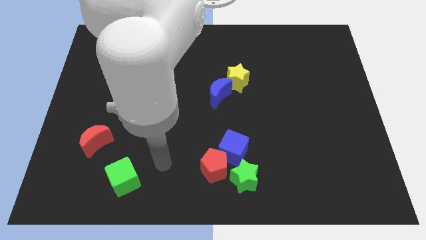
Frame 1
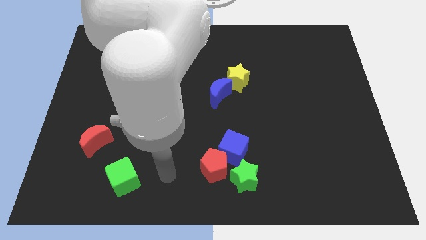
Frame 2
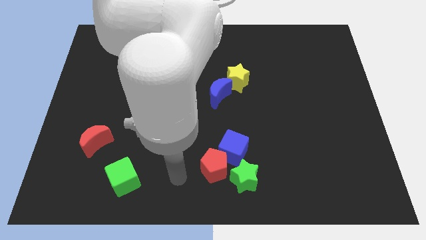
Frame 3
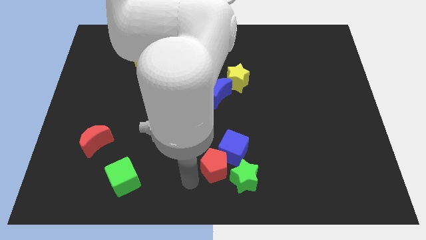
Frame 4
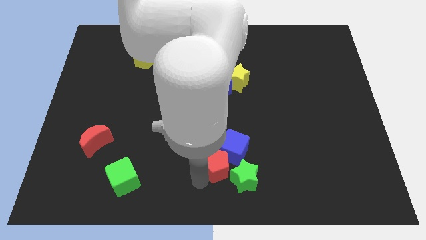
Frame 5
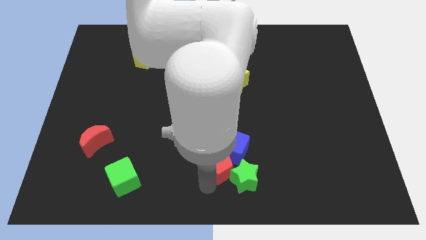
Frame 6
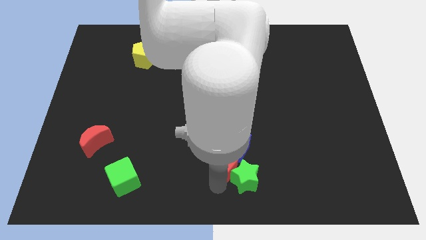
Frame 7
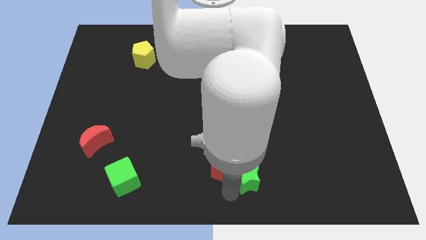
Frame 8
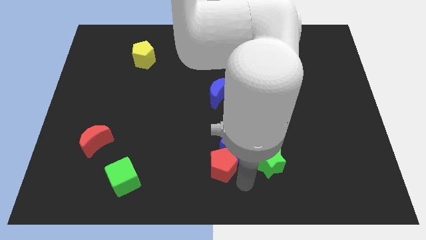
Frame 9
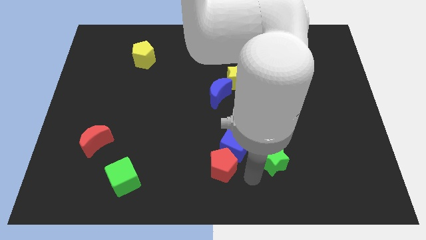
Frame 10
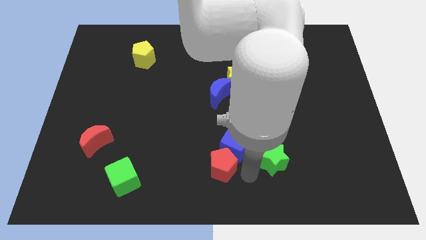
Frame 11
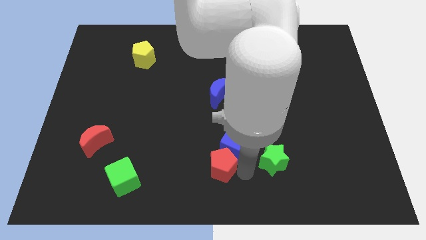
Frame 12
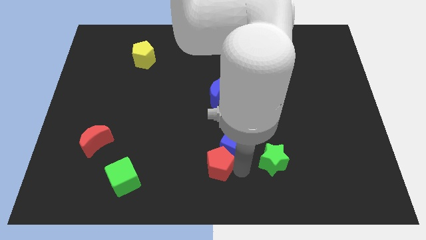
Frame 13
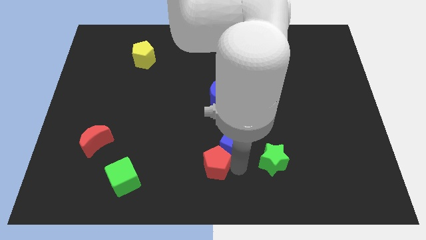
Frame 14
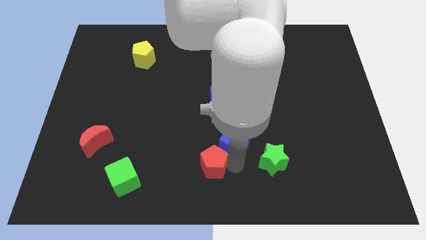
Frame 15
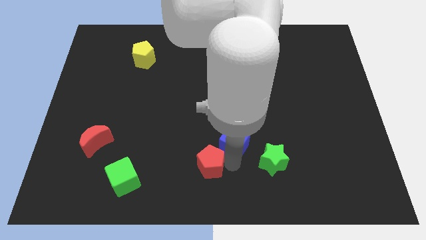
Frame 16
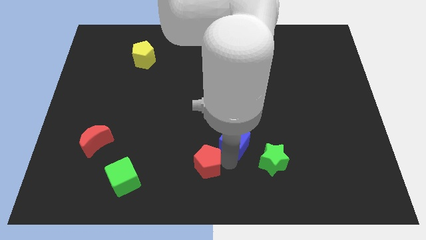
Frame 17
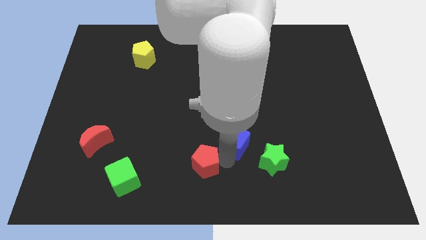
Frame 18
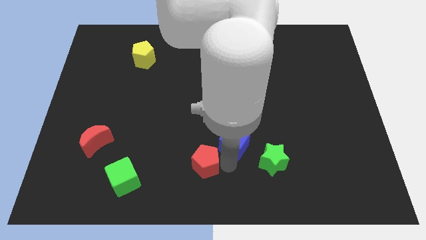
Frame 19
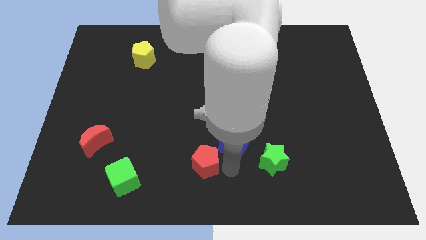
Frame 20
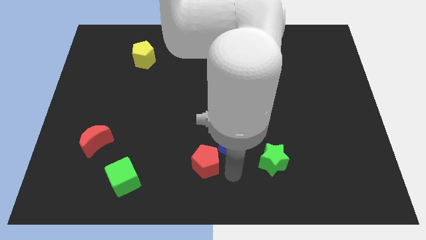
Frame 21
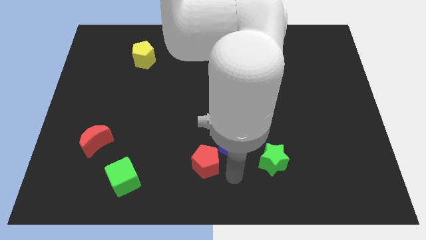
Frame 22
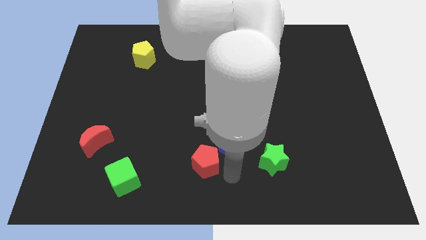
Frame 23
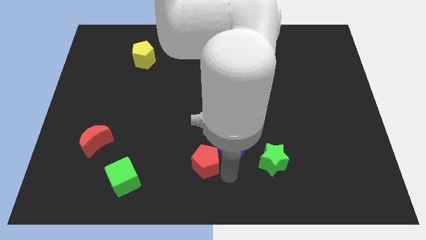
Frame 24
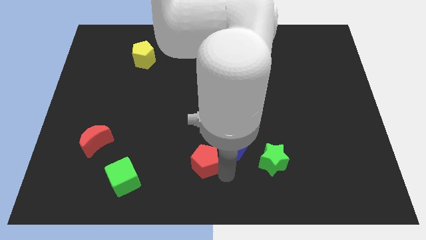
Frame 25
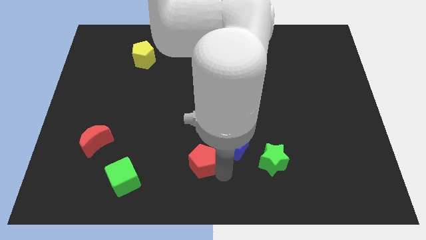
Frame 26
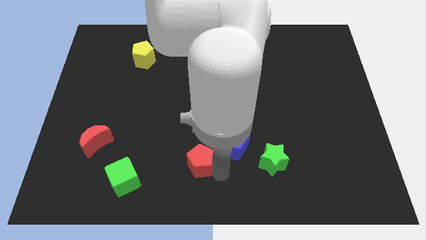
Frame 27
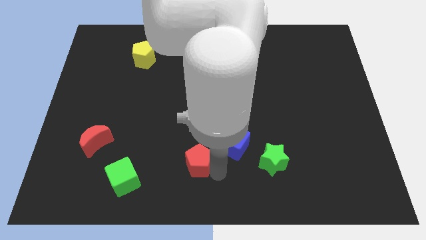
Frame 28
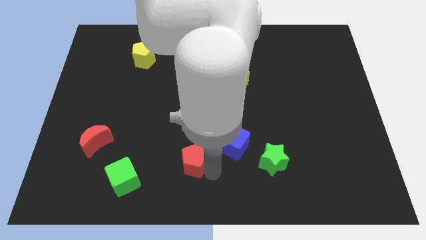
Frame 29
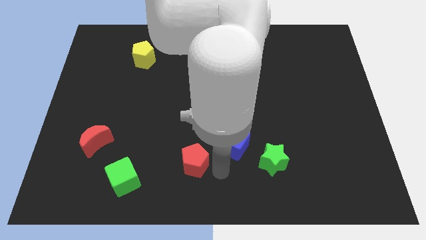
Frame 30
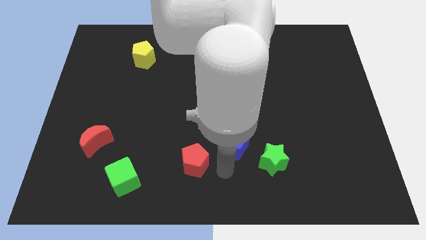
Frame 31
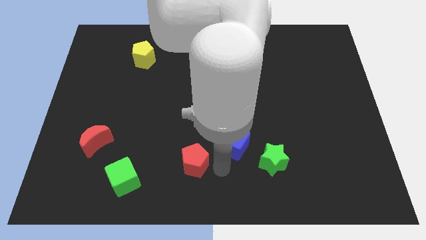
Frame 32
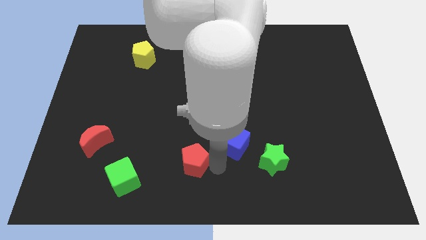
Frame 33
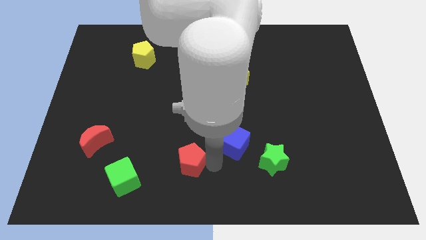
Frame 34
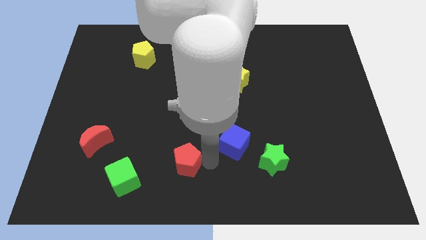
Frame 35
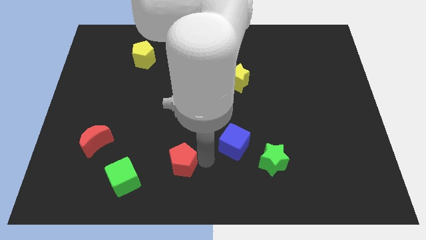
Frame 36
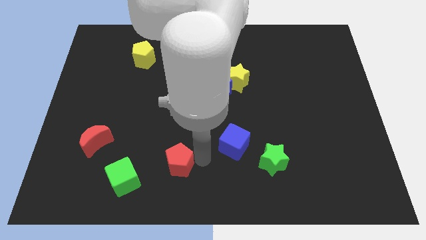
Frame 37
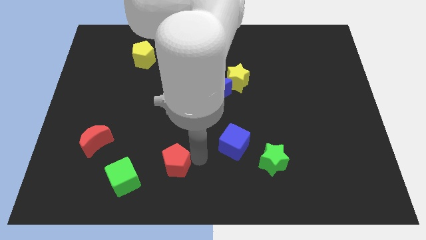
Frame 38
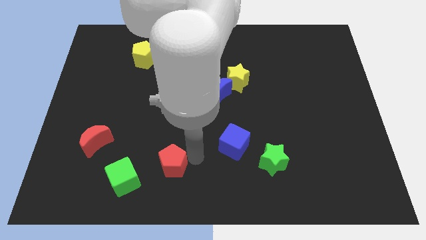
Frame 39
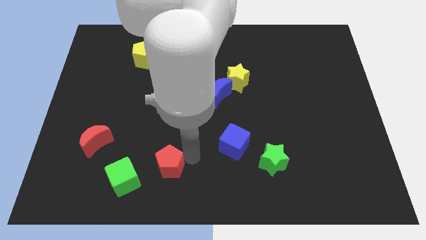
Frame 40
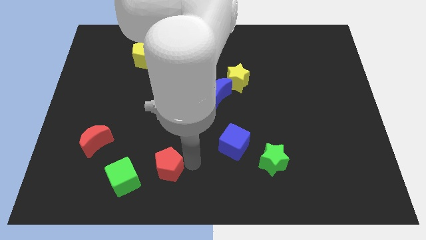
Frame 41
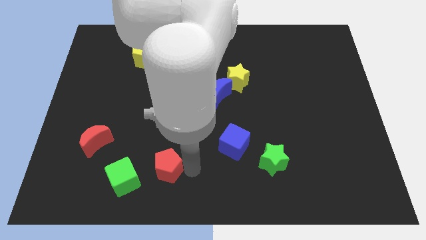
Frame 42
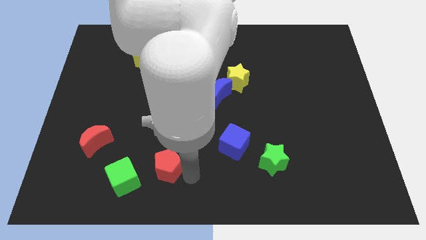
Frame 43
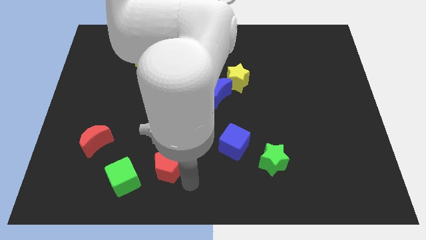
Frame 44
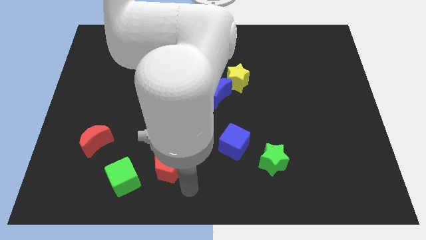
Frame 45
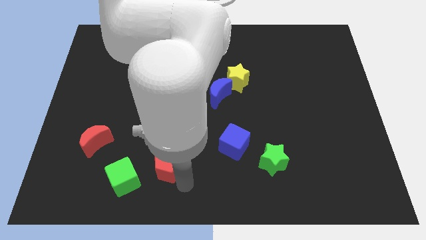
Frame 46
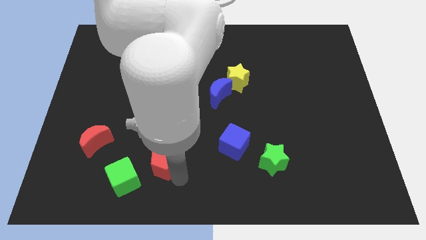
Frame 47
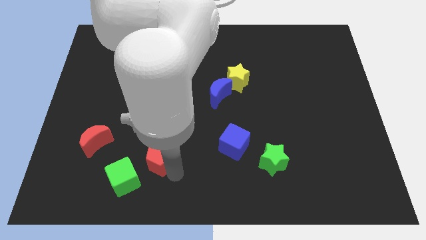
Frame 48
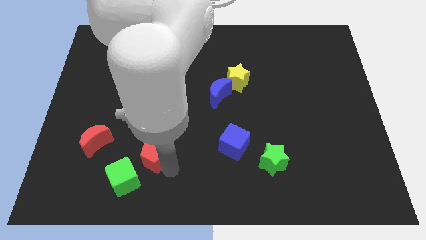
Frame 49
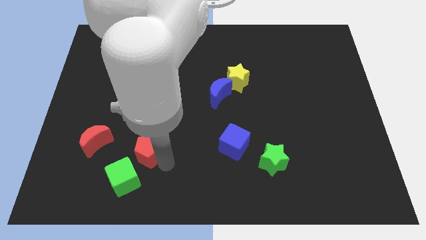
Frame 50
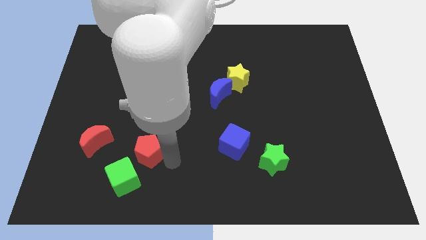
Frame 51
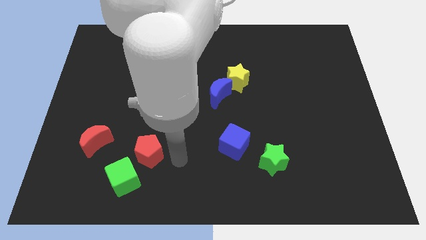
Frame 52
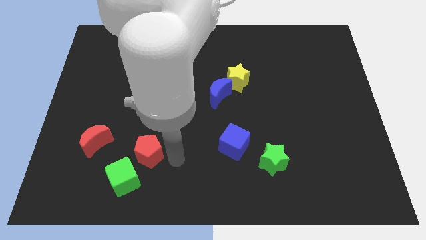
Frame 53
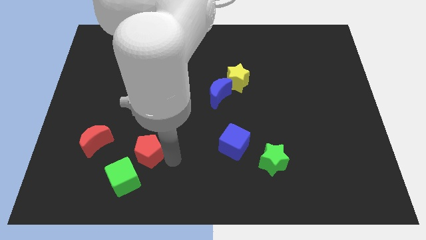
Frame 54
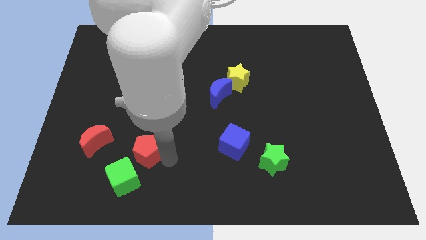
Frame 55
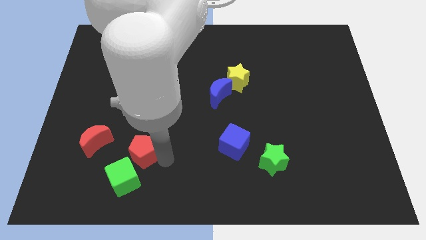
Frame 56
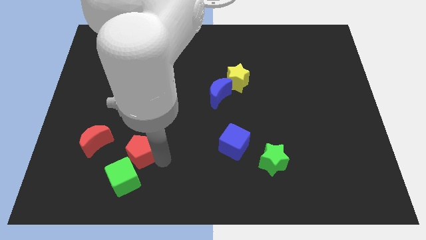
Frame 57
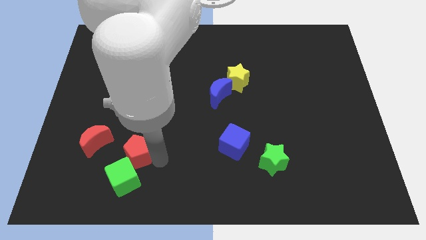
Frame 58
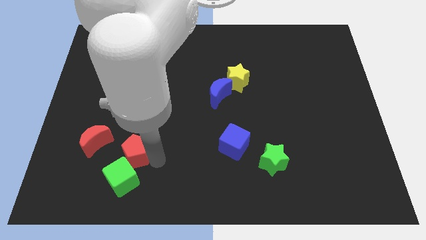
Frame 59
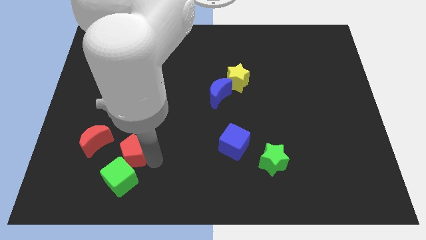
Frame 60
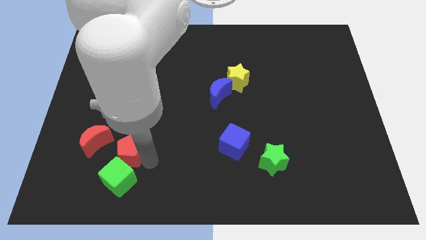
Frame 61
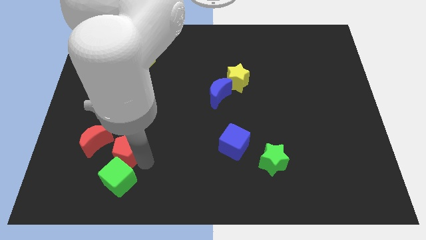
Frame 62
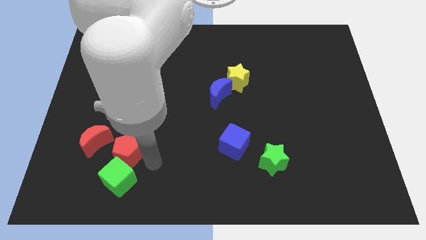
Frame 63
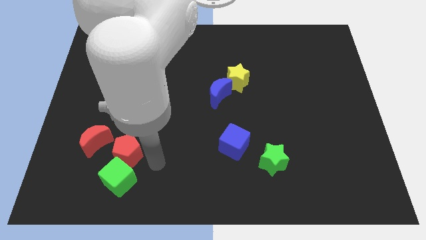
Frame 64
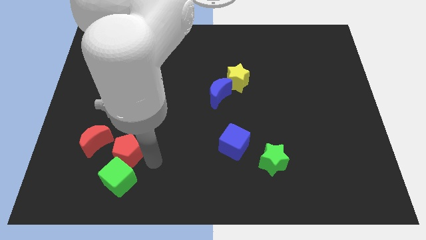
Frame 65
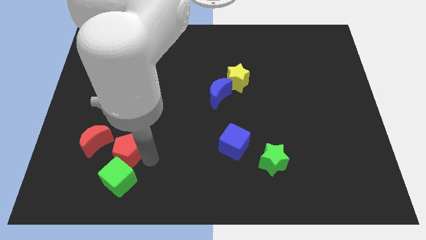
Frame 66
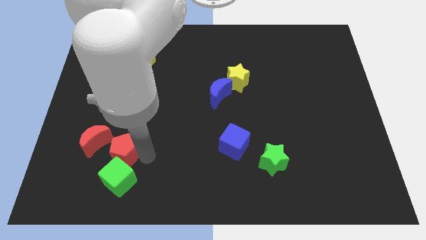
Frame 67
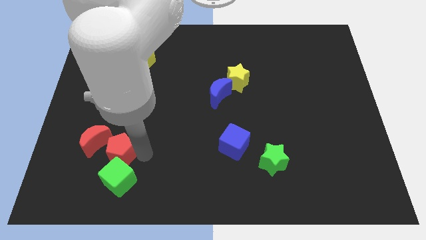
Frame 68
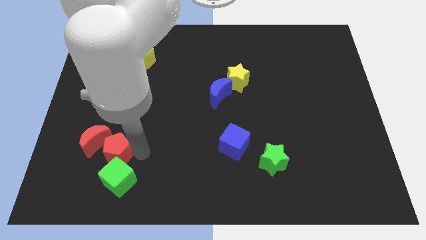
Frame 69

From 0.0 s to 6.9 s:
move the red pentagon towards the red moon

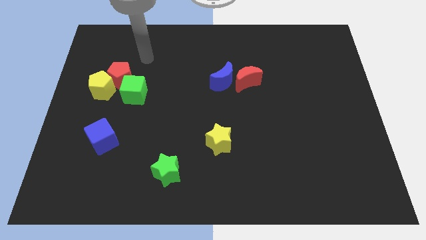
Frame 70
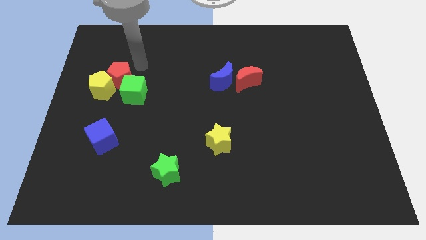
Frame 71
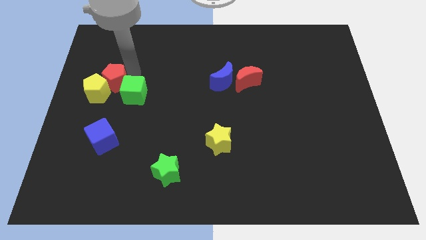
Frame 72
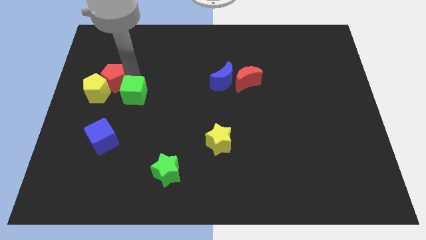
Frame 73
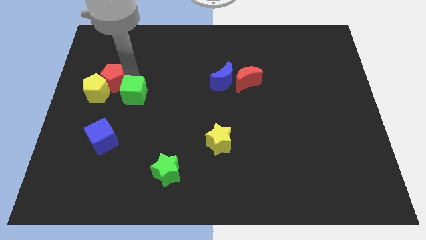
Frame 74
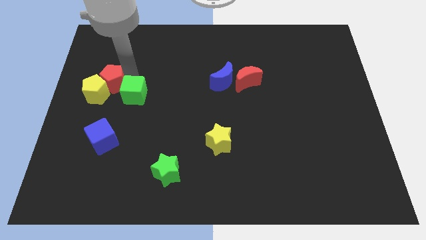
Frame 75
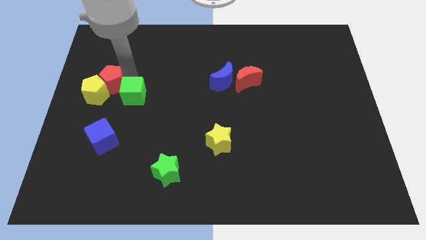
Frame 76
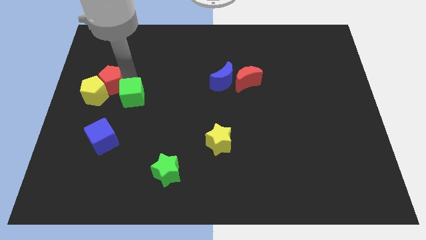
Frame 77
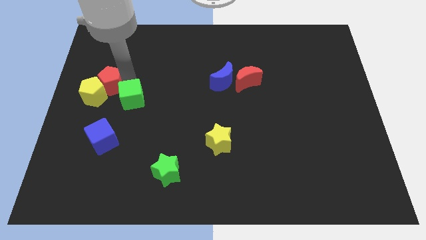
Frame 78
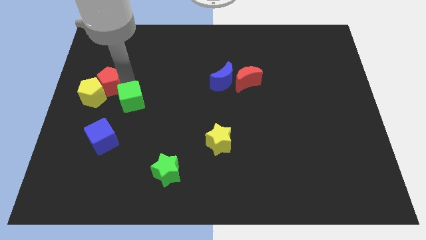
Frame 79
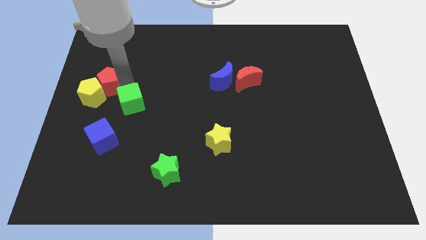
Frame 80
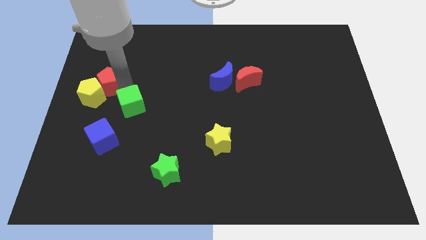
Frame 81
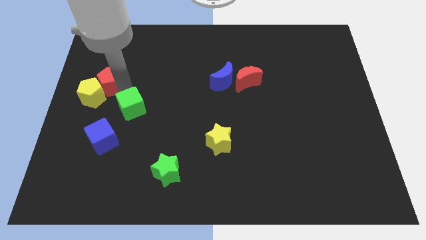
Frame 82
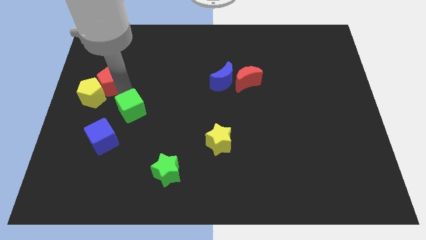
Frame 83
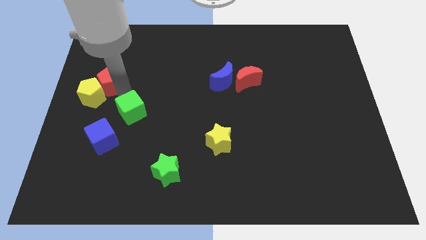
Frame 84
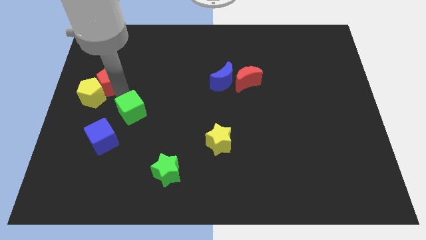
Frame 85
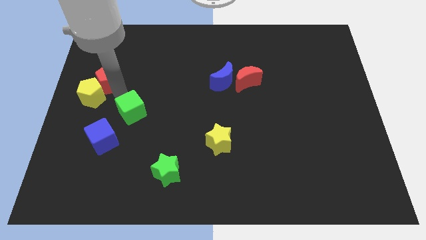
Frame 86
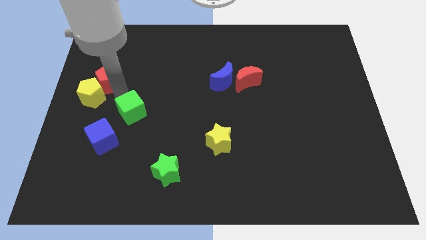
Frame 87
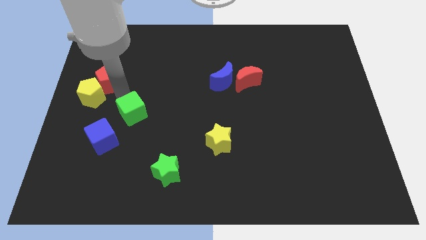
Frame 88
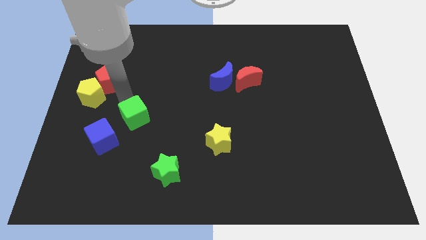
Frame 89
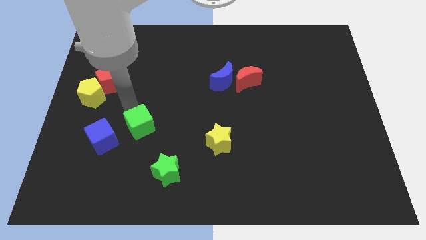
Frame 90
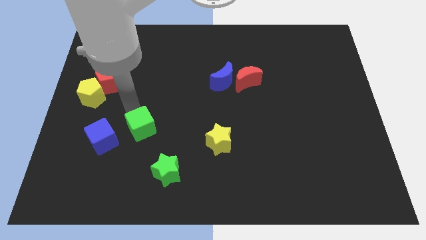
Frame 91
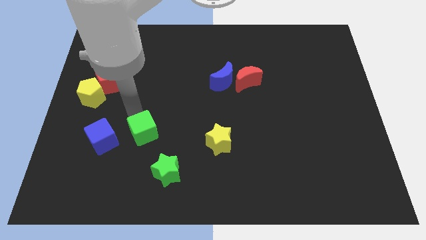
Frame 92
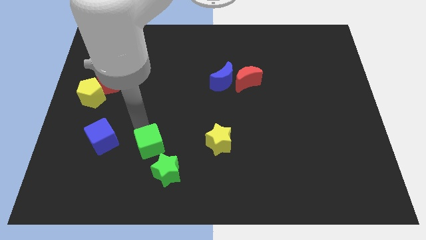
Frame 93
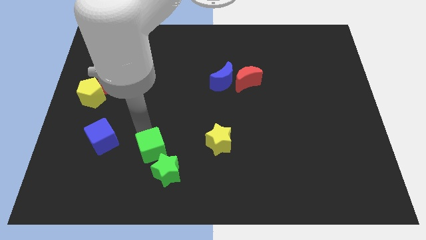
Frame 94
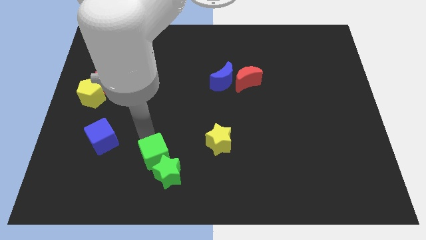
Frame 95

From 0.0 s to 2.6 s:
put the green cube close to the green star
